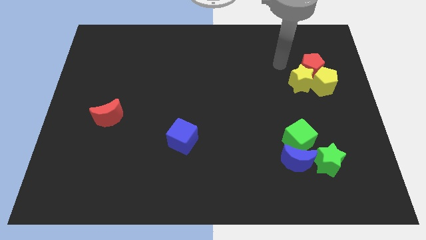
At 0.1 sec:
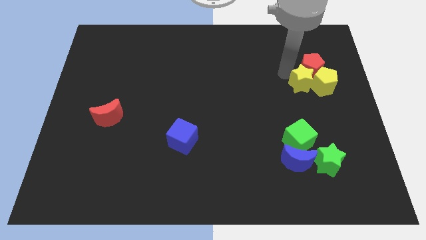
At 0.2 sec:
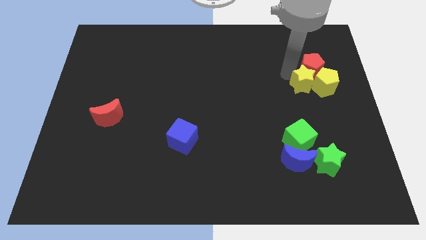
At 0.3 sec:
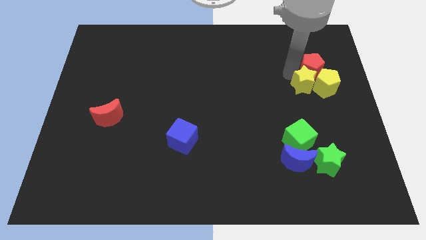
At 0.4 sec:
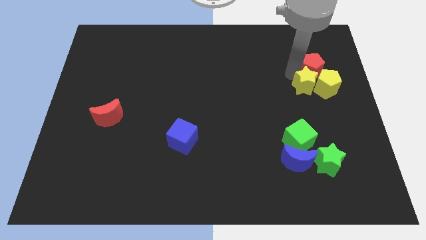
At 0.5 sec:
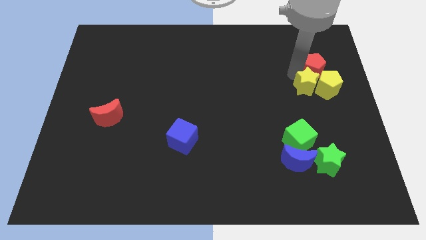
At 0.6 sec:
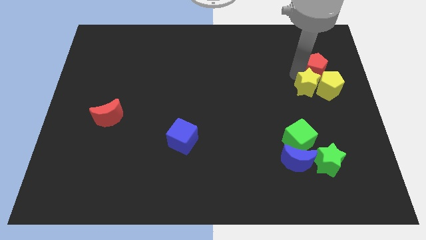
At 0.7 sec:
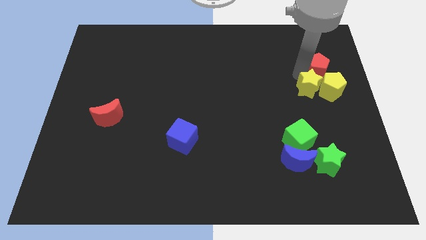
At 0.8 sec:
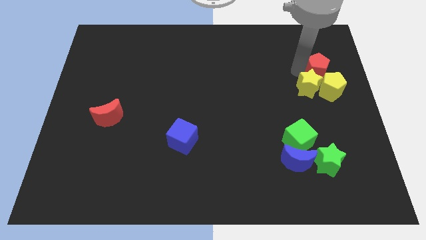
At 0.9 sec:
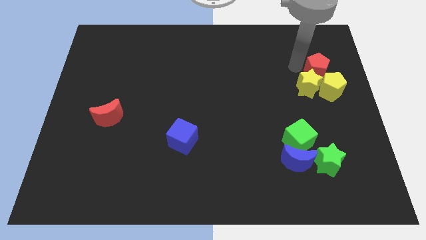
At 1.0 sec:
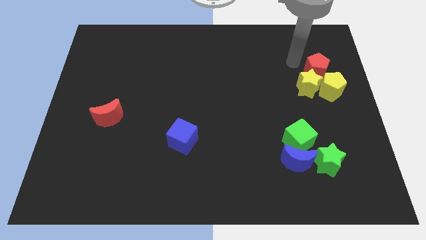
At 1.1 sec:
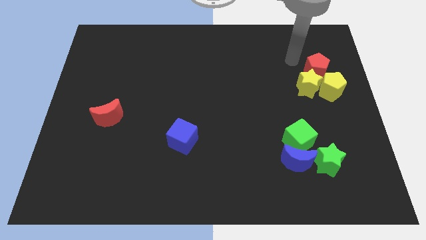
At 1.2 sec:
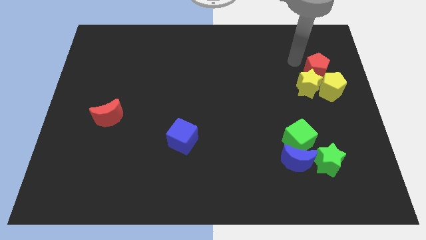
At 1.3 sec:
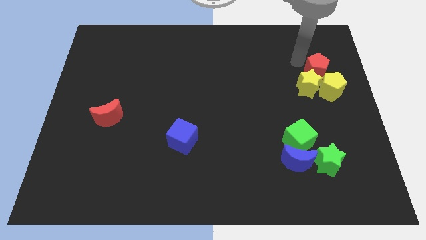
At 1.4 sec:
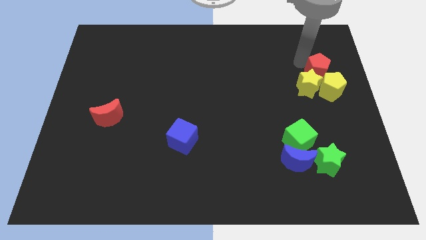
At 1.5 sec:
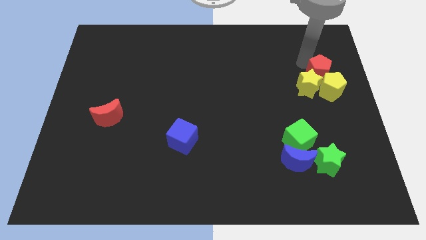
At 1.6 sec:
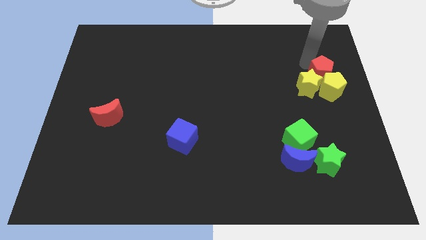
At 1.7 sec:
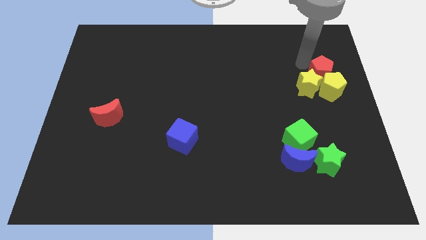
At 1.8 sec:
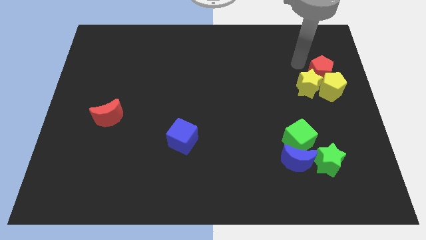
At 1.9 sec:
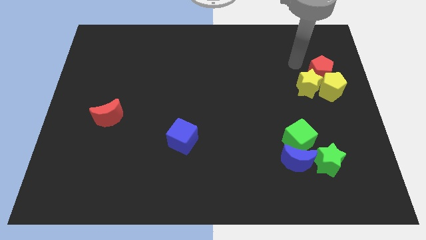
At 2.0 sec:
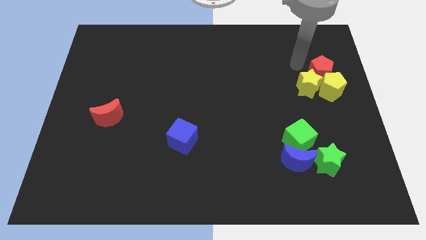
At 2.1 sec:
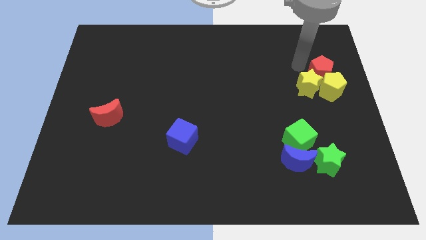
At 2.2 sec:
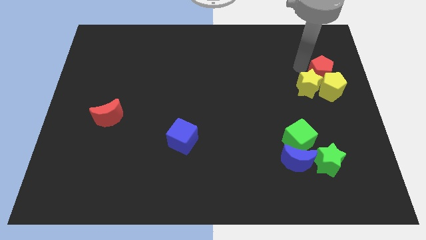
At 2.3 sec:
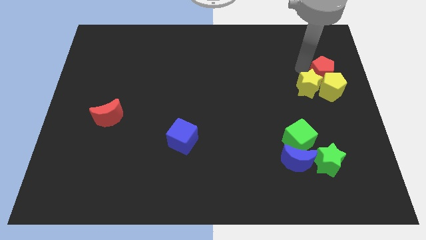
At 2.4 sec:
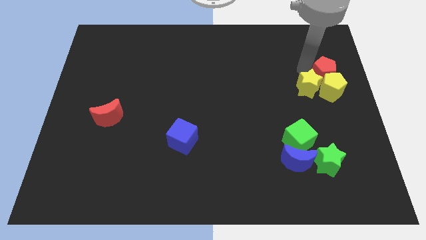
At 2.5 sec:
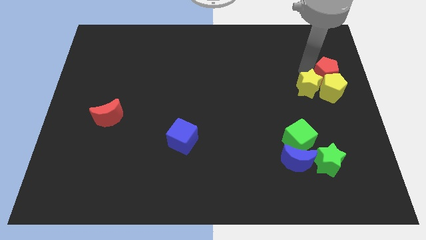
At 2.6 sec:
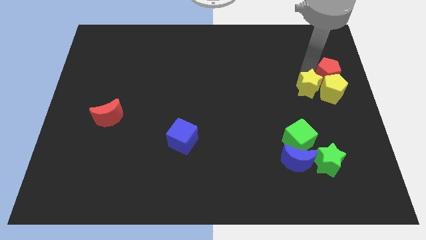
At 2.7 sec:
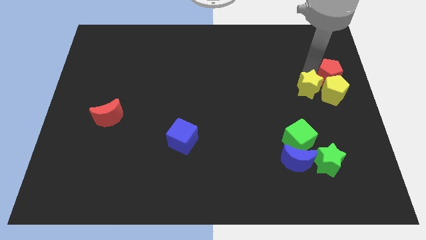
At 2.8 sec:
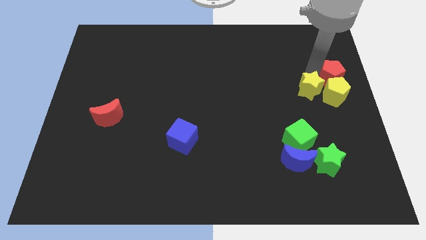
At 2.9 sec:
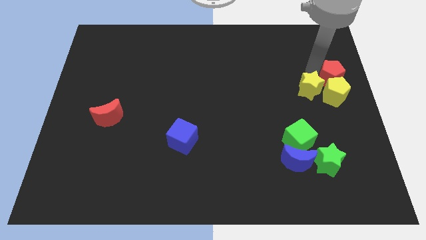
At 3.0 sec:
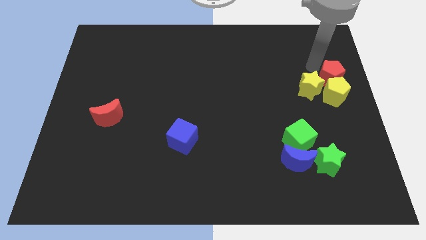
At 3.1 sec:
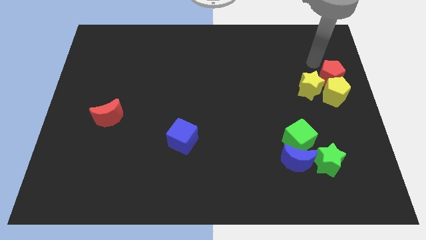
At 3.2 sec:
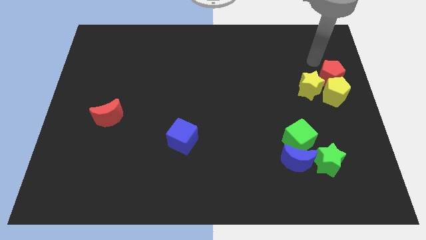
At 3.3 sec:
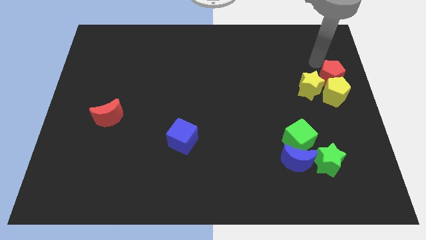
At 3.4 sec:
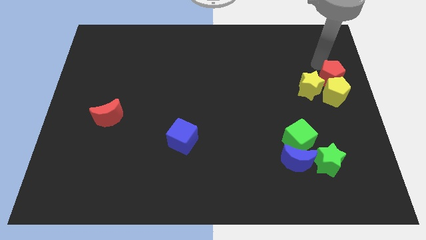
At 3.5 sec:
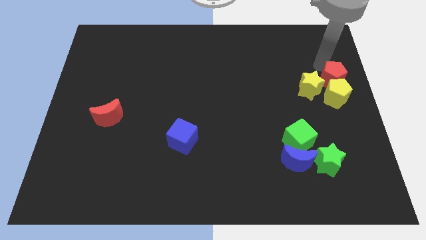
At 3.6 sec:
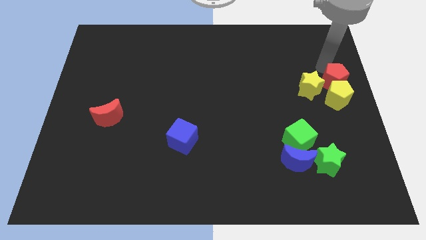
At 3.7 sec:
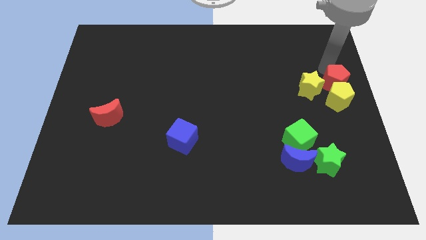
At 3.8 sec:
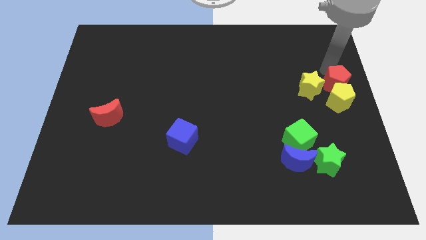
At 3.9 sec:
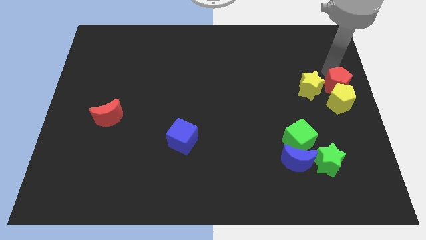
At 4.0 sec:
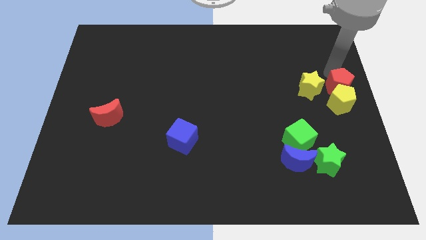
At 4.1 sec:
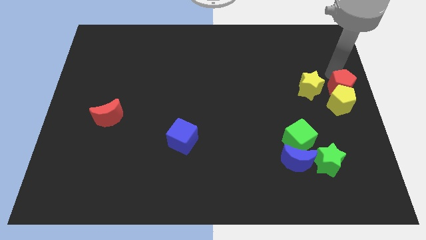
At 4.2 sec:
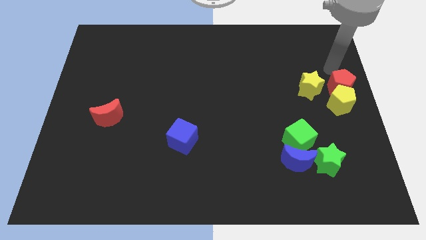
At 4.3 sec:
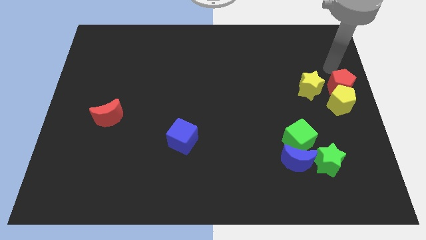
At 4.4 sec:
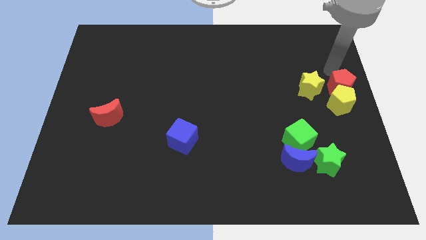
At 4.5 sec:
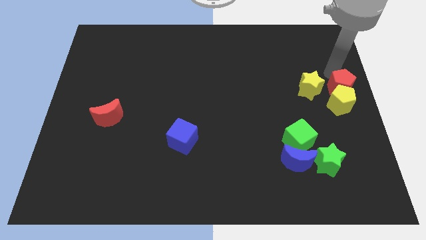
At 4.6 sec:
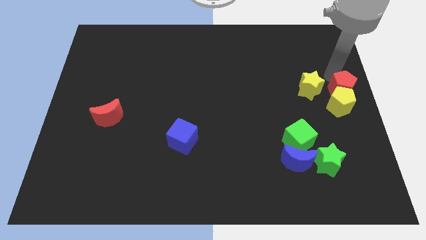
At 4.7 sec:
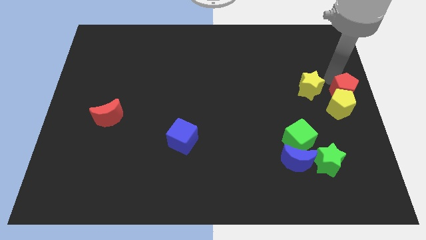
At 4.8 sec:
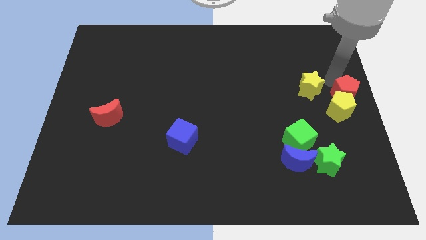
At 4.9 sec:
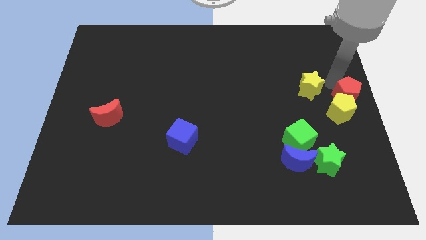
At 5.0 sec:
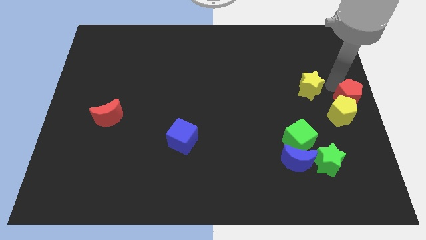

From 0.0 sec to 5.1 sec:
slightly move the red pentagon downwards

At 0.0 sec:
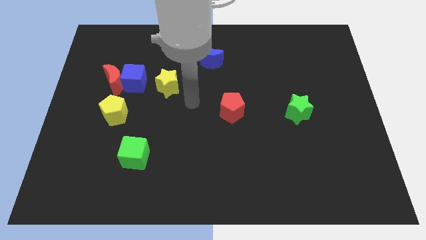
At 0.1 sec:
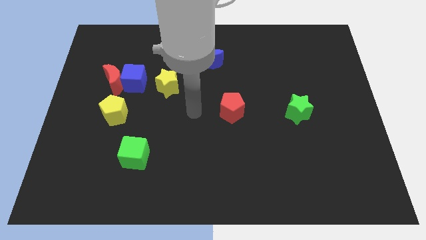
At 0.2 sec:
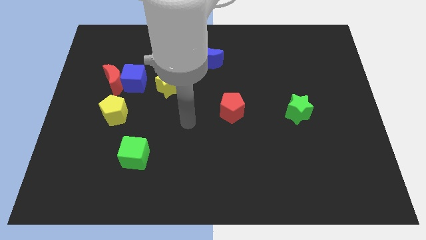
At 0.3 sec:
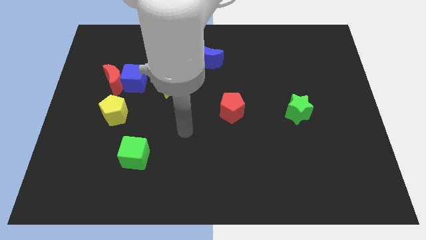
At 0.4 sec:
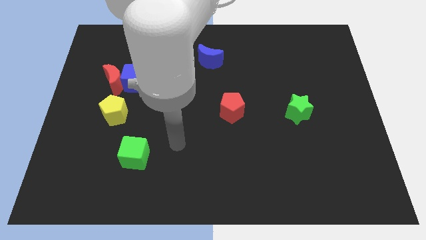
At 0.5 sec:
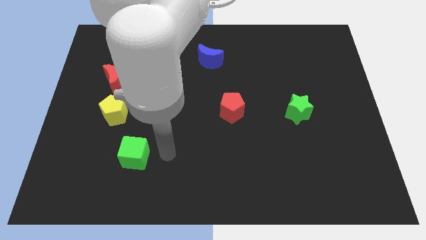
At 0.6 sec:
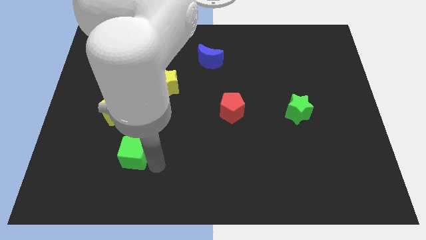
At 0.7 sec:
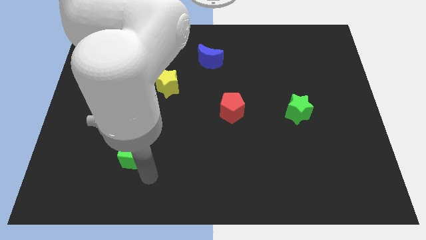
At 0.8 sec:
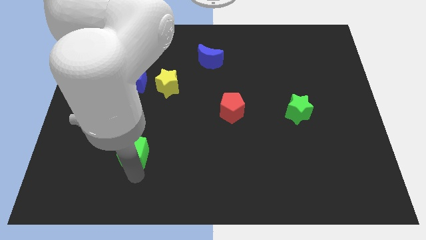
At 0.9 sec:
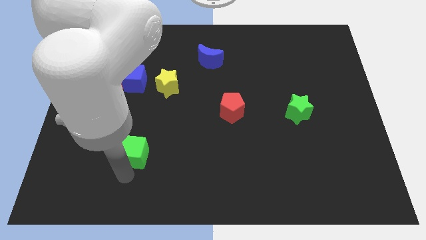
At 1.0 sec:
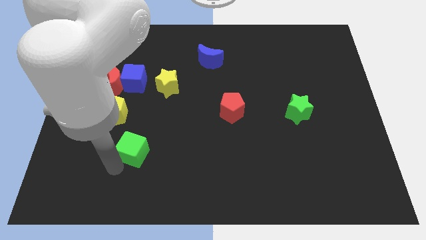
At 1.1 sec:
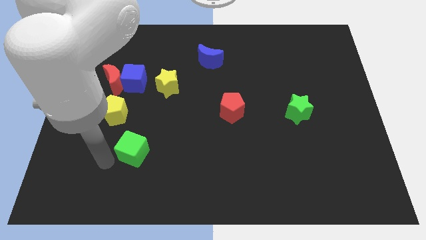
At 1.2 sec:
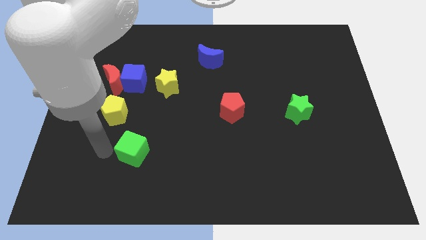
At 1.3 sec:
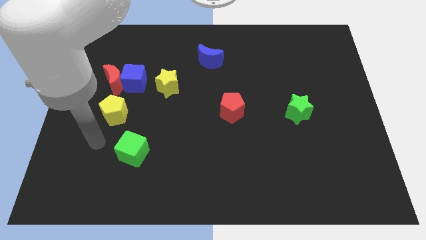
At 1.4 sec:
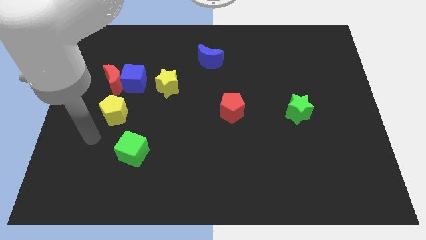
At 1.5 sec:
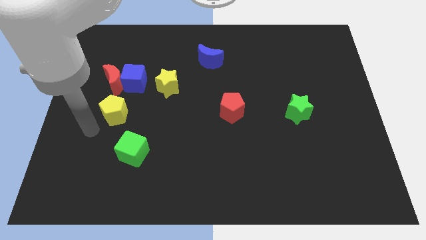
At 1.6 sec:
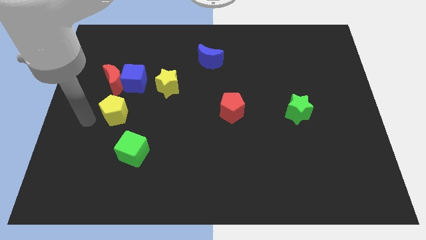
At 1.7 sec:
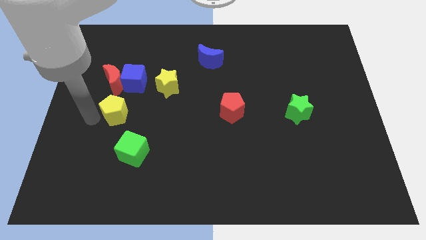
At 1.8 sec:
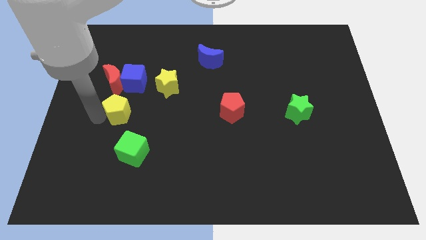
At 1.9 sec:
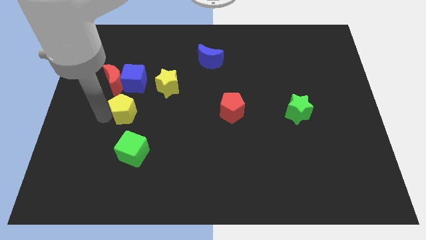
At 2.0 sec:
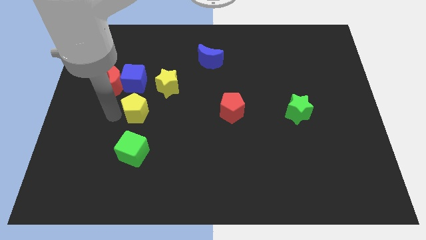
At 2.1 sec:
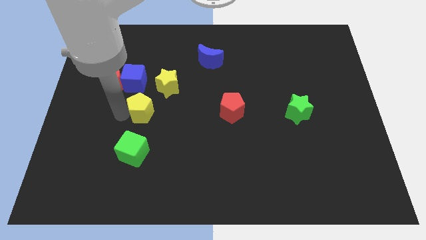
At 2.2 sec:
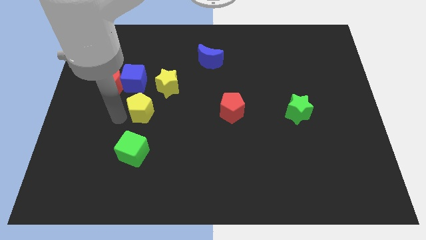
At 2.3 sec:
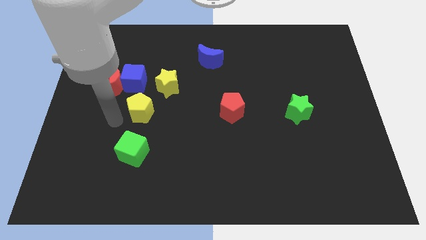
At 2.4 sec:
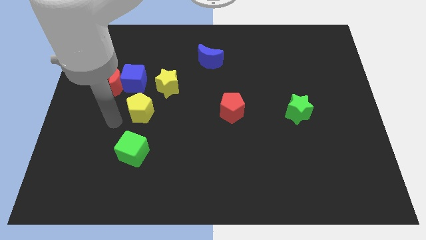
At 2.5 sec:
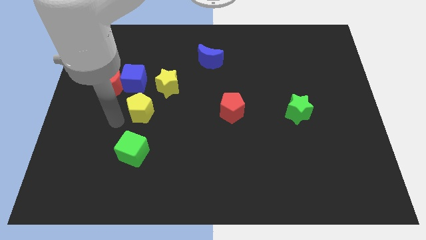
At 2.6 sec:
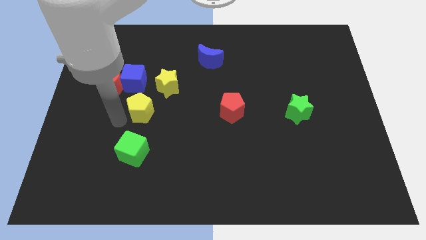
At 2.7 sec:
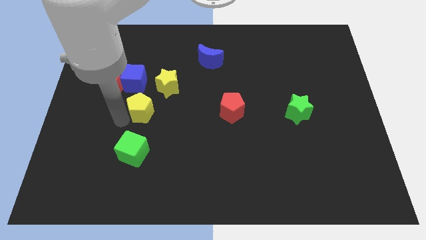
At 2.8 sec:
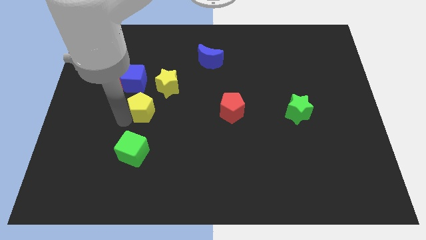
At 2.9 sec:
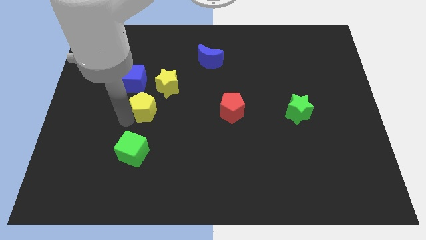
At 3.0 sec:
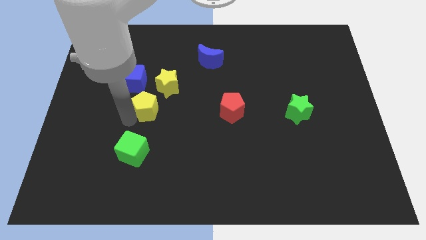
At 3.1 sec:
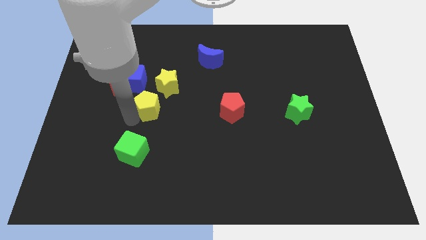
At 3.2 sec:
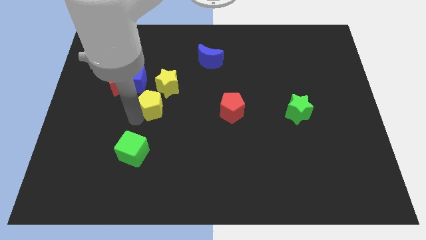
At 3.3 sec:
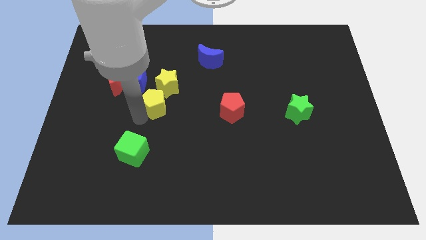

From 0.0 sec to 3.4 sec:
push the yellow pentagon diagonally upwards and right somewhat
